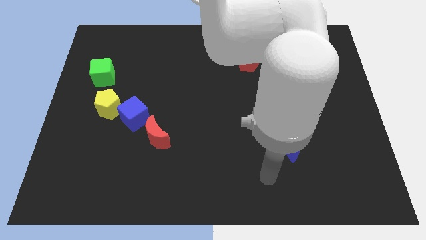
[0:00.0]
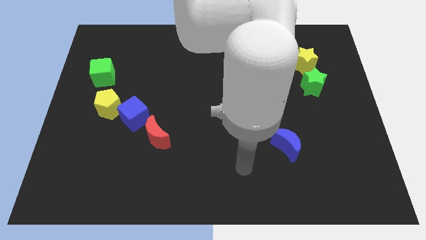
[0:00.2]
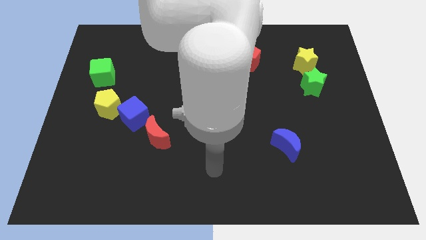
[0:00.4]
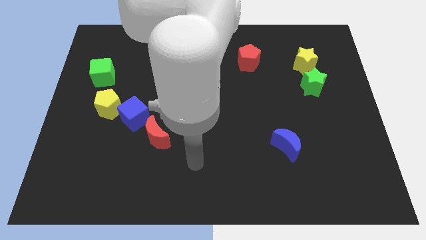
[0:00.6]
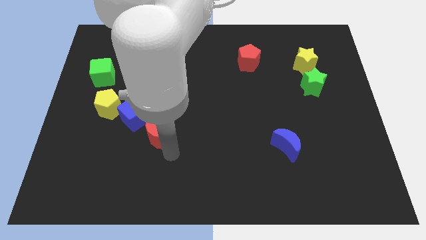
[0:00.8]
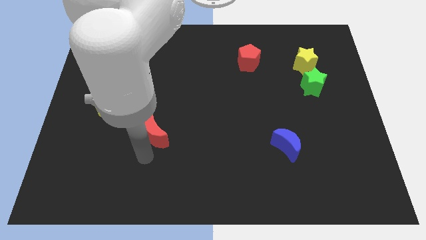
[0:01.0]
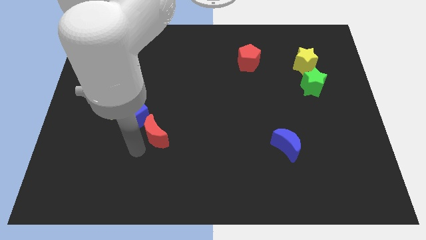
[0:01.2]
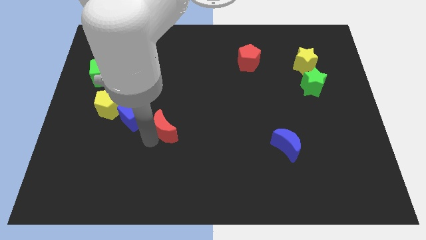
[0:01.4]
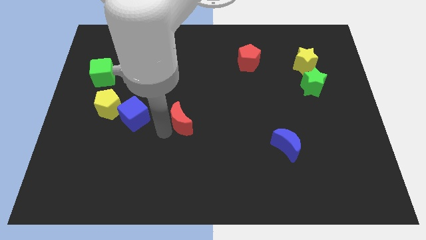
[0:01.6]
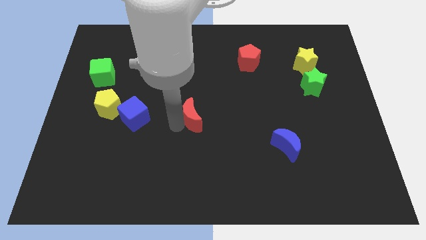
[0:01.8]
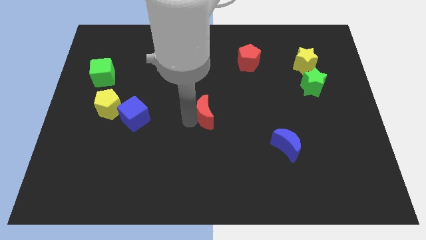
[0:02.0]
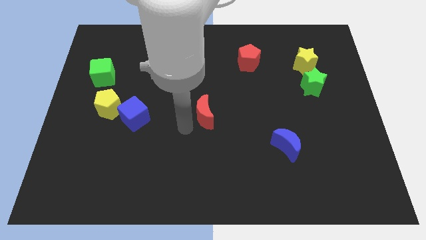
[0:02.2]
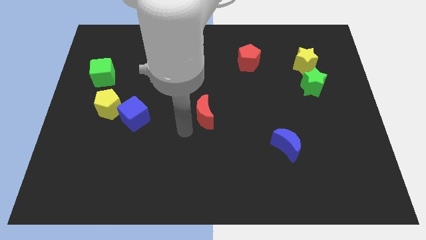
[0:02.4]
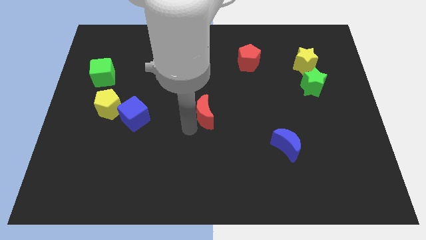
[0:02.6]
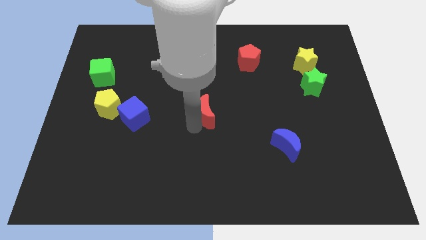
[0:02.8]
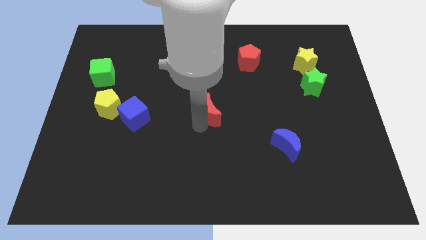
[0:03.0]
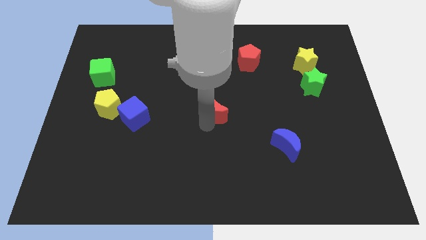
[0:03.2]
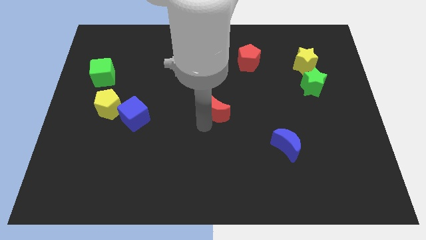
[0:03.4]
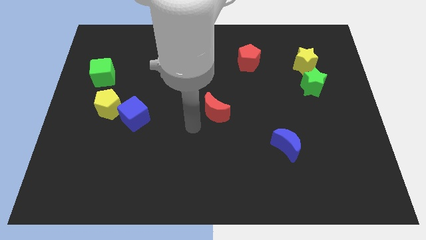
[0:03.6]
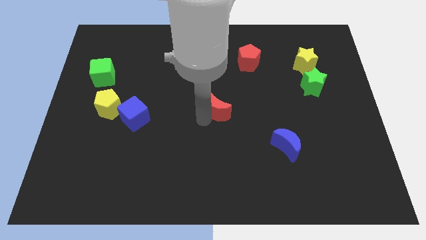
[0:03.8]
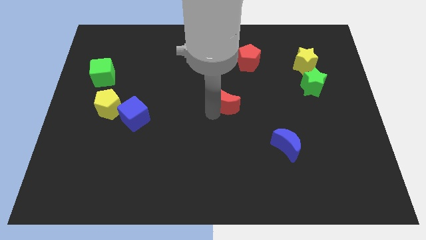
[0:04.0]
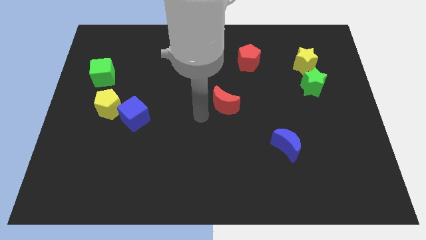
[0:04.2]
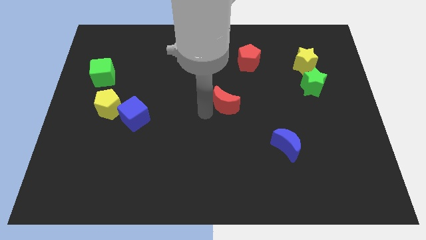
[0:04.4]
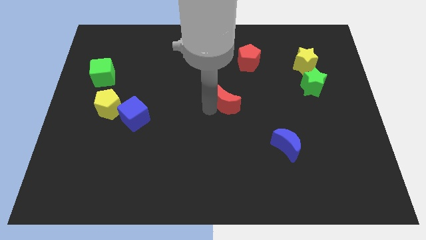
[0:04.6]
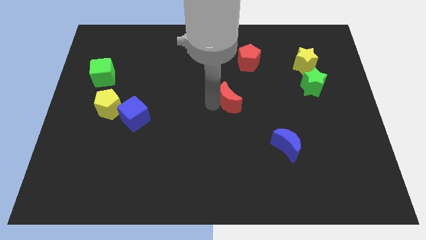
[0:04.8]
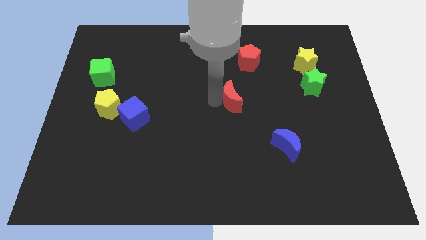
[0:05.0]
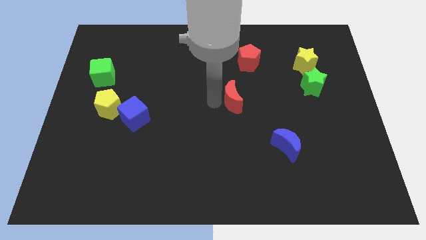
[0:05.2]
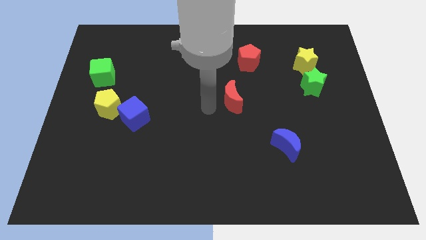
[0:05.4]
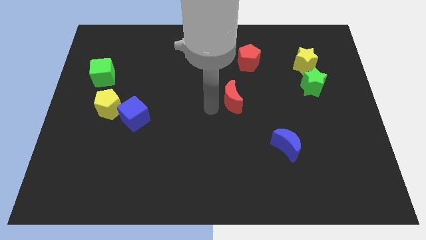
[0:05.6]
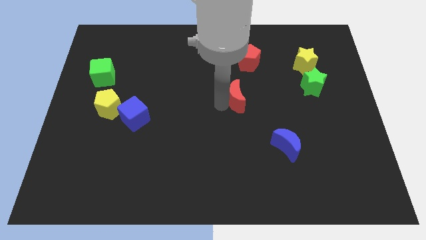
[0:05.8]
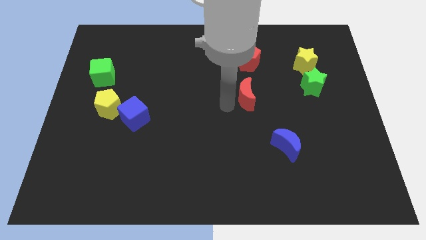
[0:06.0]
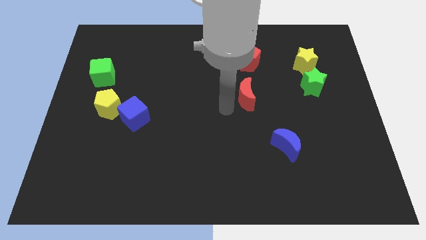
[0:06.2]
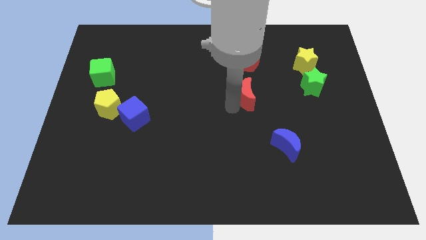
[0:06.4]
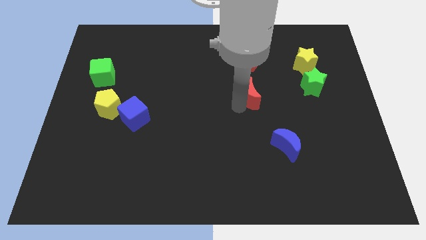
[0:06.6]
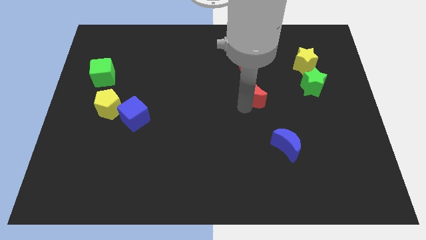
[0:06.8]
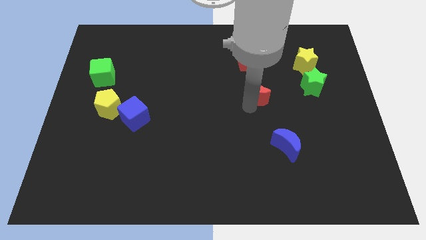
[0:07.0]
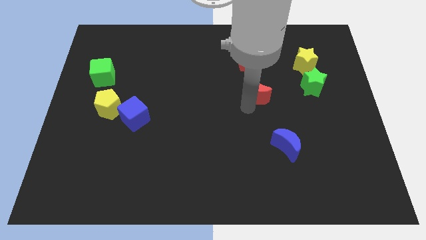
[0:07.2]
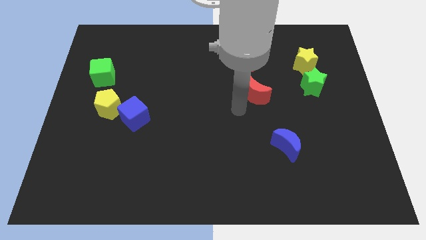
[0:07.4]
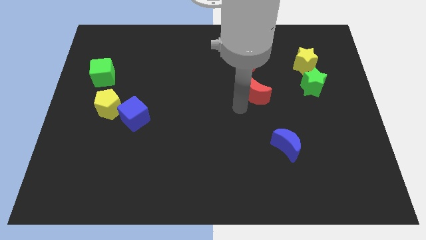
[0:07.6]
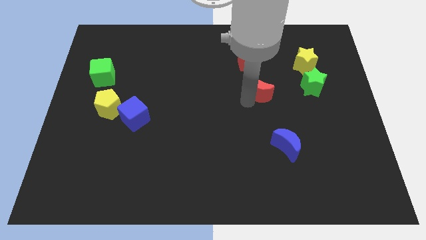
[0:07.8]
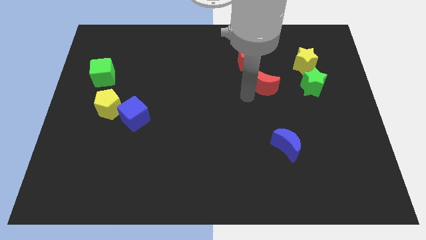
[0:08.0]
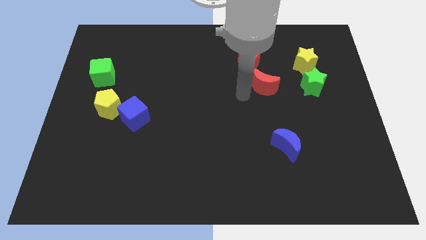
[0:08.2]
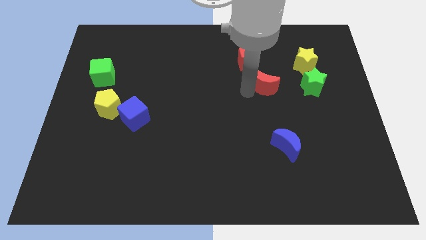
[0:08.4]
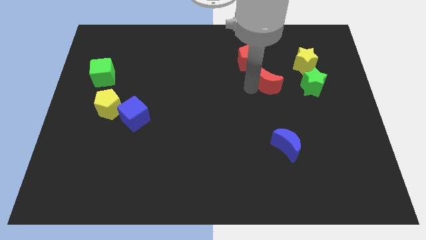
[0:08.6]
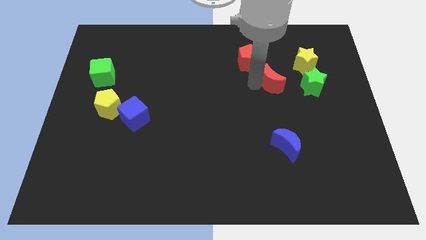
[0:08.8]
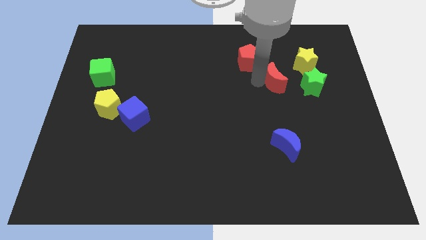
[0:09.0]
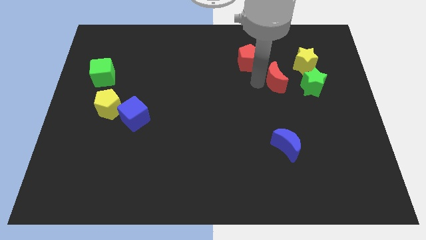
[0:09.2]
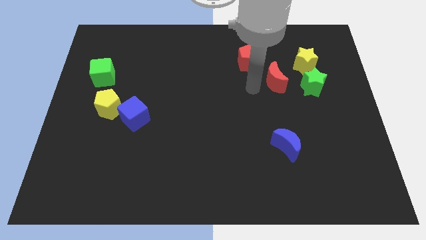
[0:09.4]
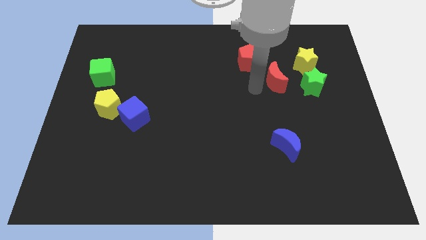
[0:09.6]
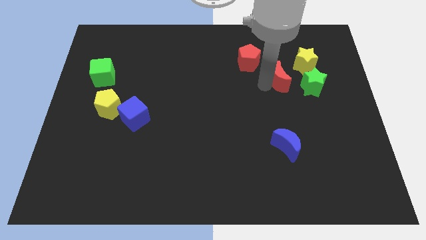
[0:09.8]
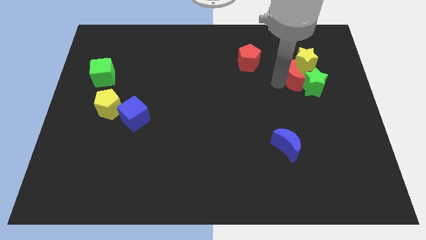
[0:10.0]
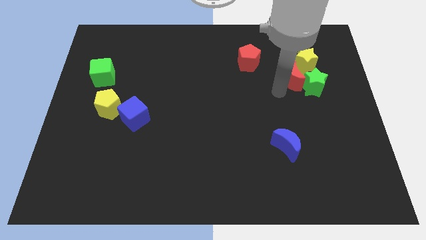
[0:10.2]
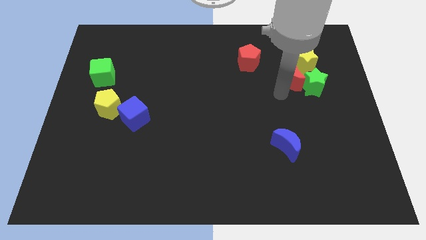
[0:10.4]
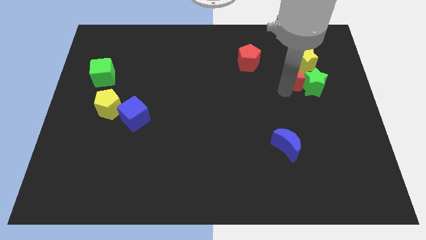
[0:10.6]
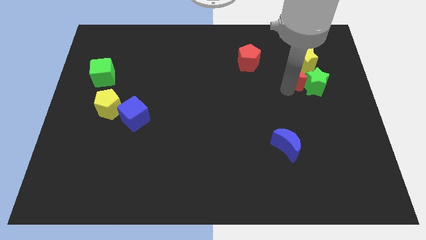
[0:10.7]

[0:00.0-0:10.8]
push the red moon to the yellow star
